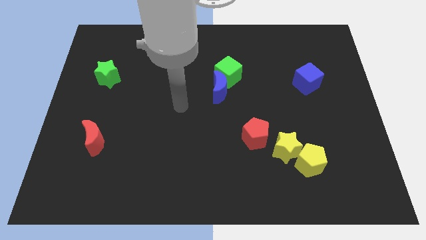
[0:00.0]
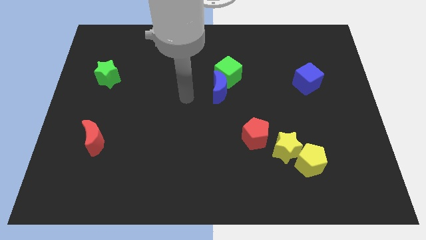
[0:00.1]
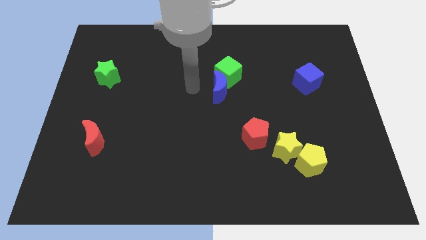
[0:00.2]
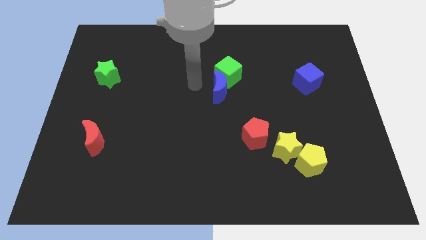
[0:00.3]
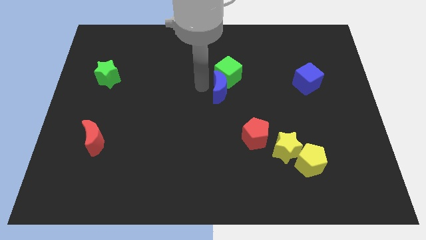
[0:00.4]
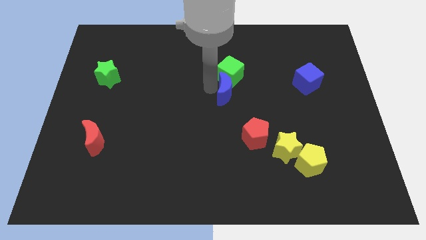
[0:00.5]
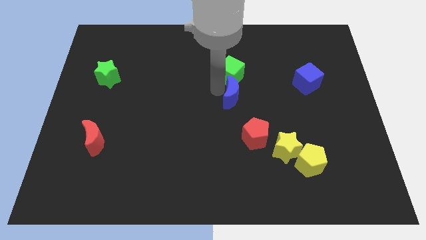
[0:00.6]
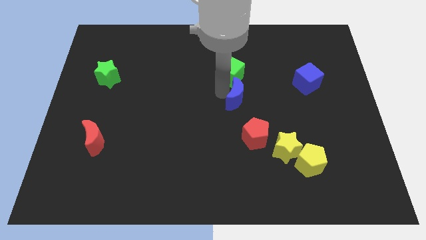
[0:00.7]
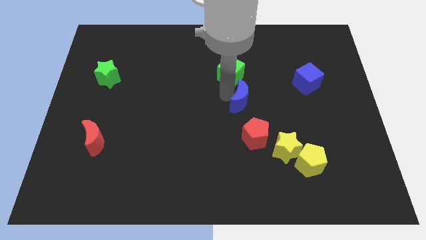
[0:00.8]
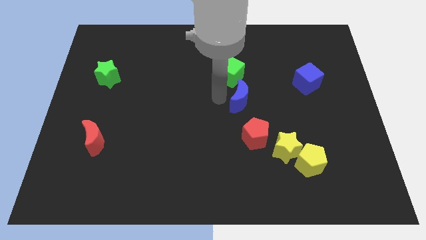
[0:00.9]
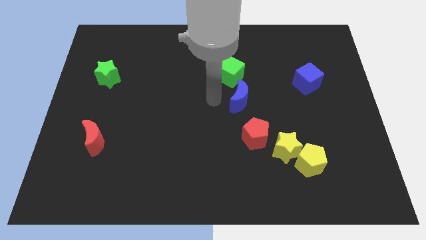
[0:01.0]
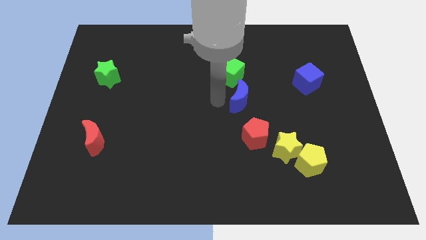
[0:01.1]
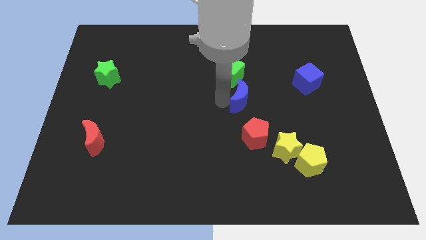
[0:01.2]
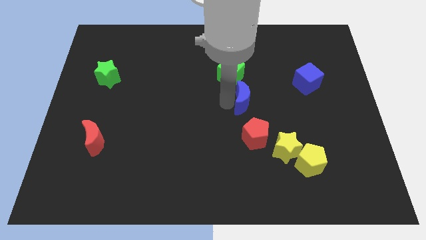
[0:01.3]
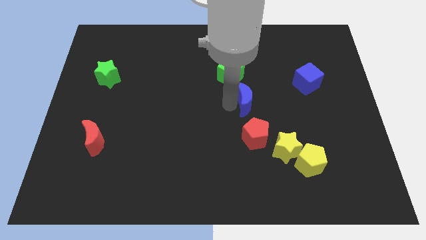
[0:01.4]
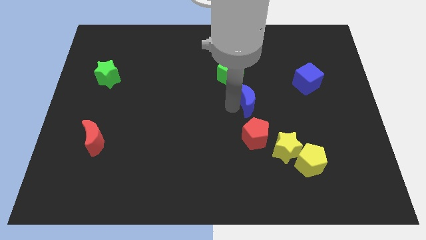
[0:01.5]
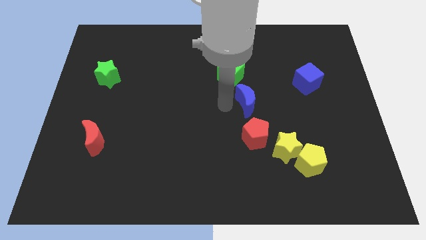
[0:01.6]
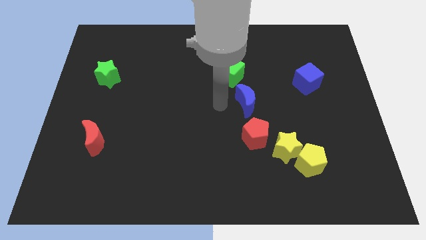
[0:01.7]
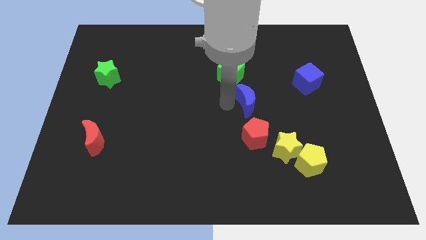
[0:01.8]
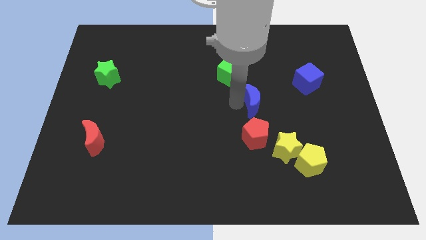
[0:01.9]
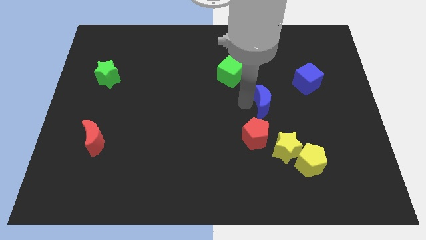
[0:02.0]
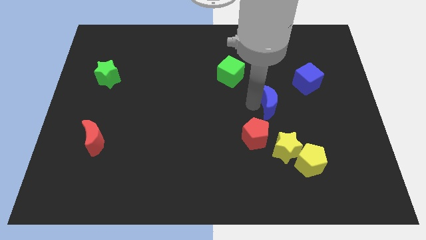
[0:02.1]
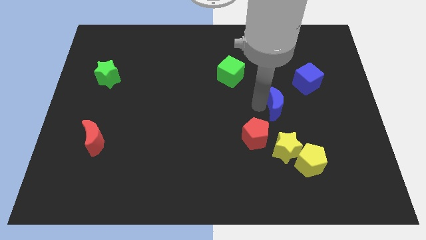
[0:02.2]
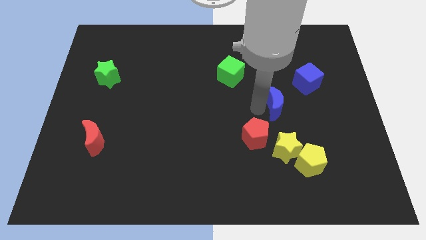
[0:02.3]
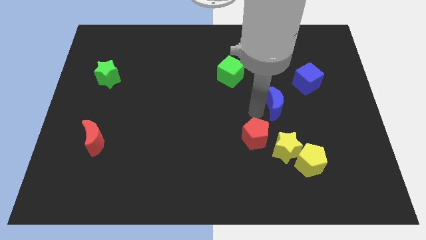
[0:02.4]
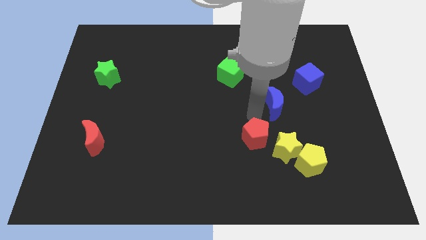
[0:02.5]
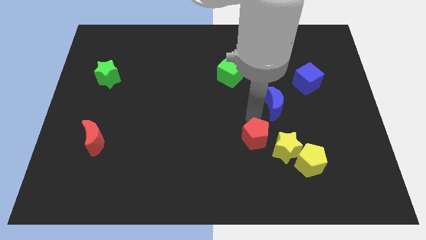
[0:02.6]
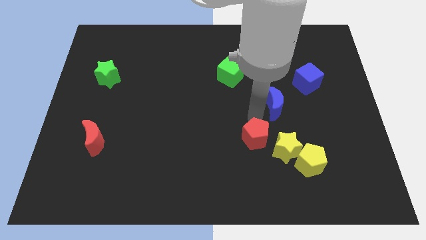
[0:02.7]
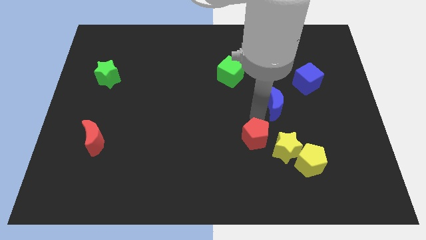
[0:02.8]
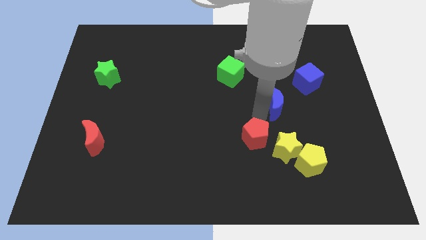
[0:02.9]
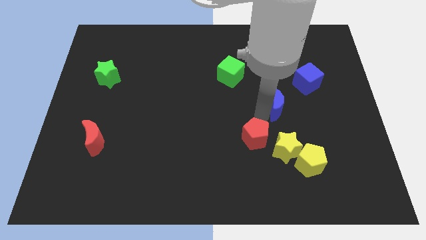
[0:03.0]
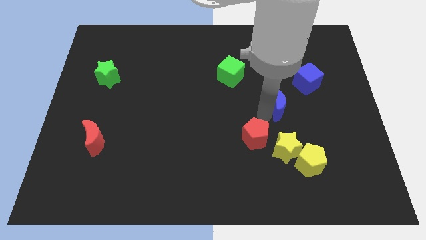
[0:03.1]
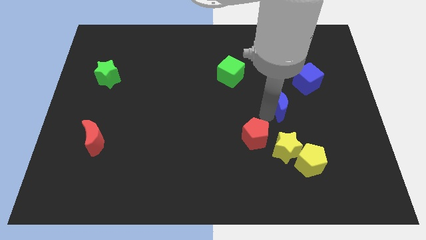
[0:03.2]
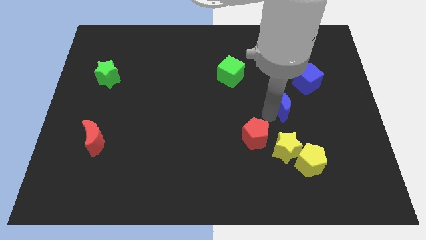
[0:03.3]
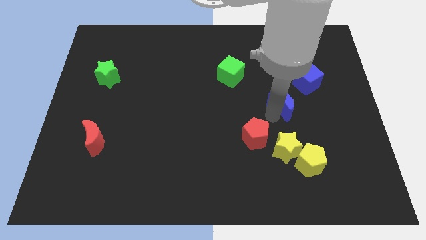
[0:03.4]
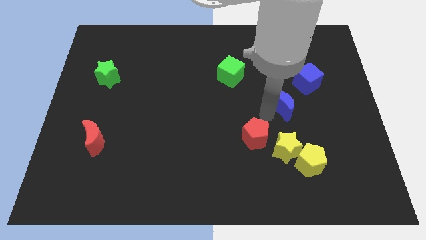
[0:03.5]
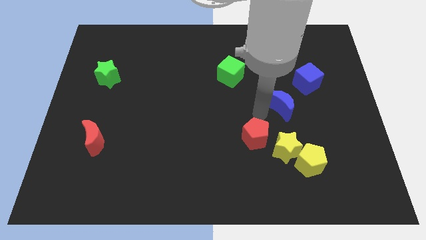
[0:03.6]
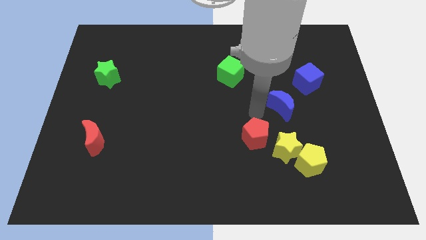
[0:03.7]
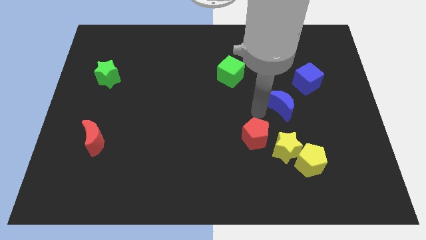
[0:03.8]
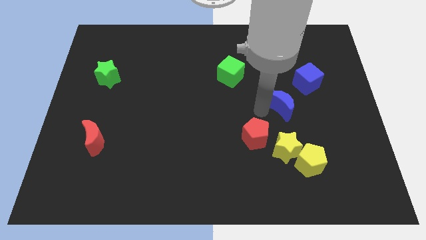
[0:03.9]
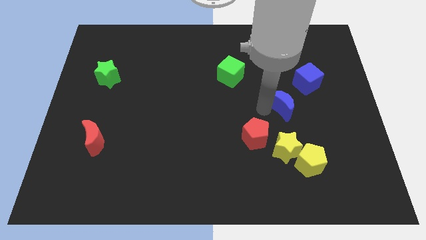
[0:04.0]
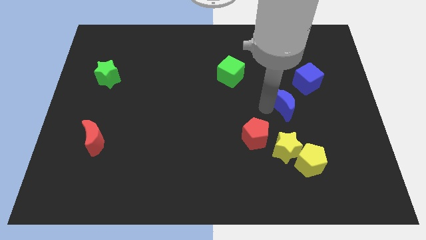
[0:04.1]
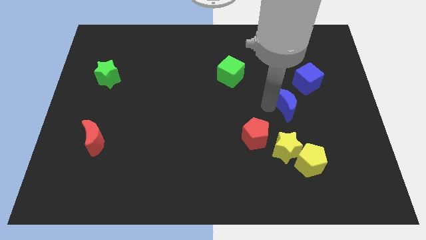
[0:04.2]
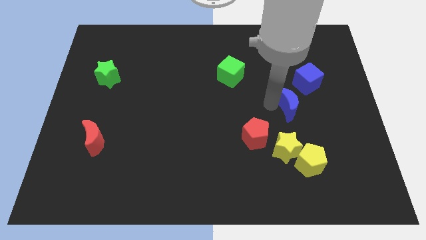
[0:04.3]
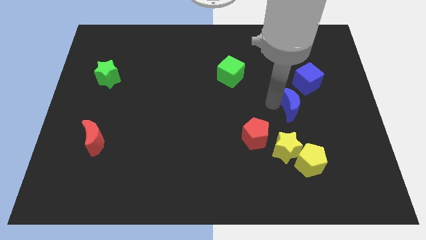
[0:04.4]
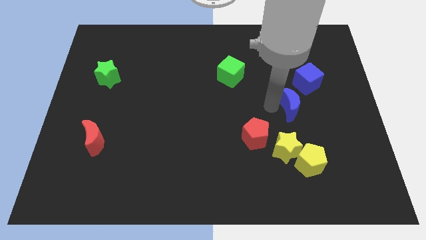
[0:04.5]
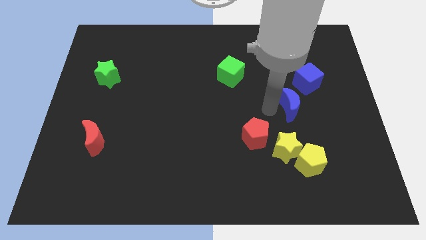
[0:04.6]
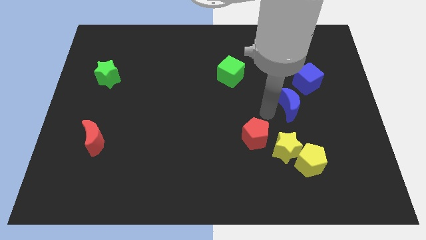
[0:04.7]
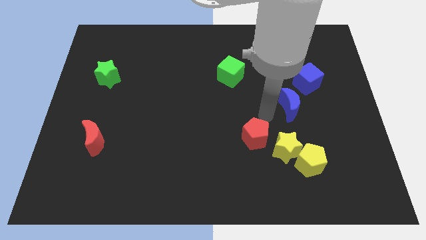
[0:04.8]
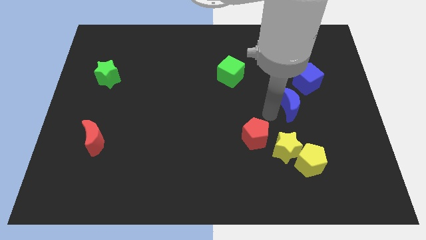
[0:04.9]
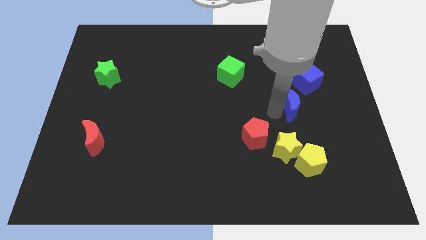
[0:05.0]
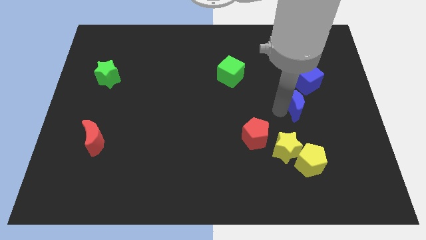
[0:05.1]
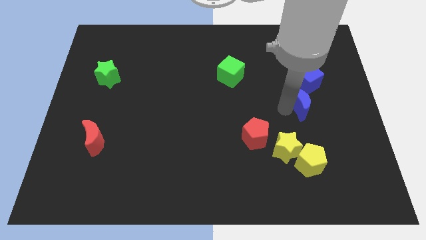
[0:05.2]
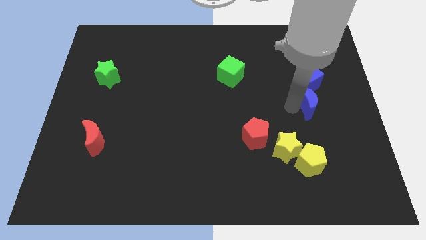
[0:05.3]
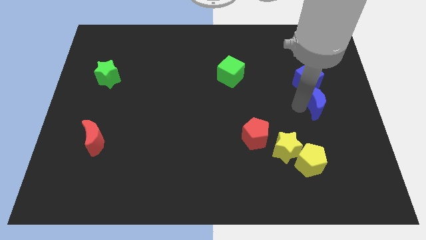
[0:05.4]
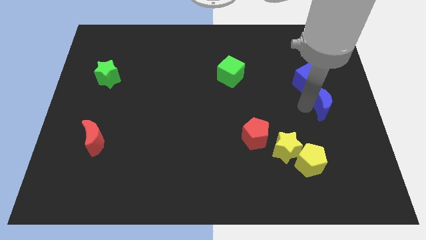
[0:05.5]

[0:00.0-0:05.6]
put the blue moon to the center right

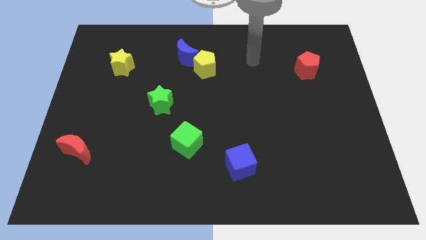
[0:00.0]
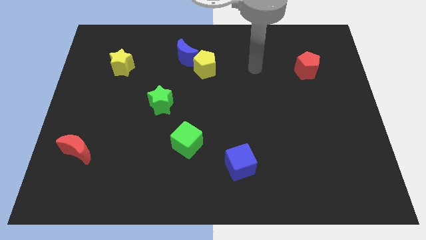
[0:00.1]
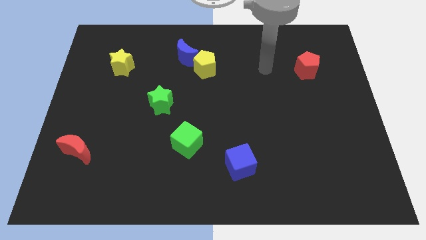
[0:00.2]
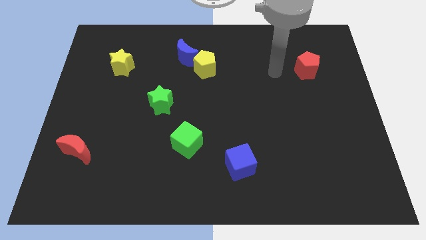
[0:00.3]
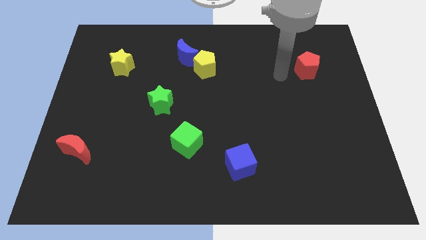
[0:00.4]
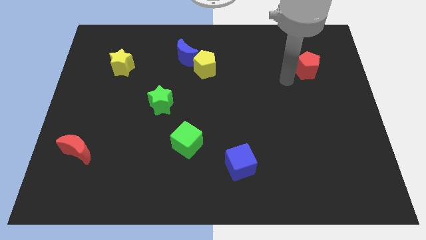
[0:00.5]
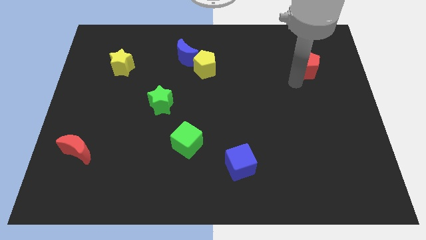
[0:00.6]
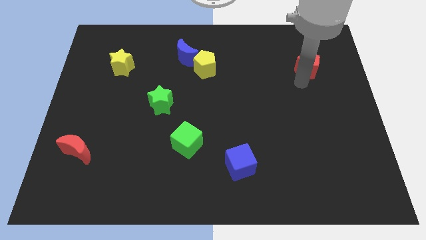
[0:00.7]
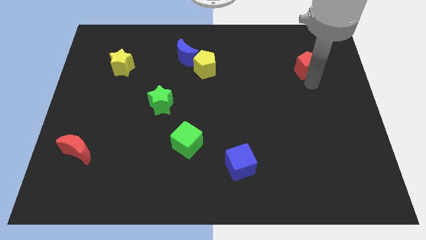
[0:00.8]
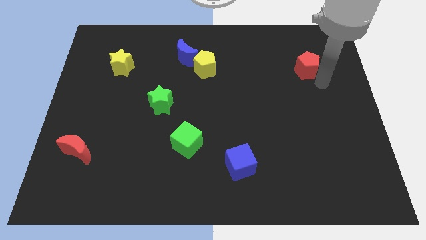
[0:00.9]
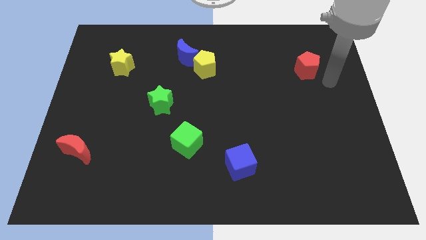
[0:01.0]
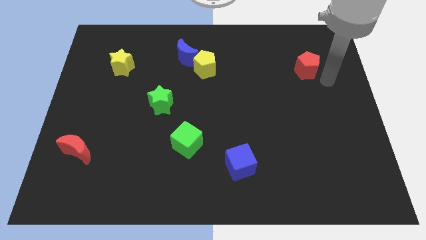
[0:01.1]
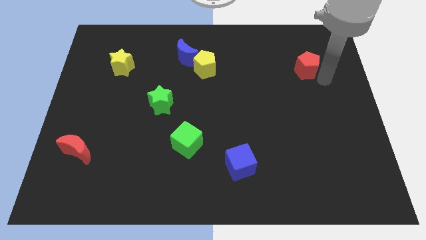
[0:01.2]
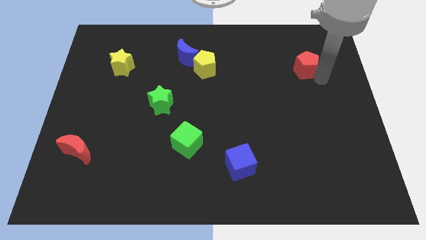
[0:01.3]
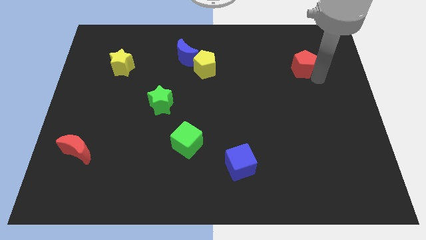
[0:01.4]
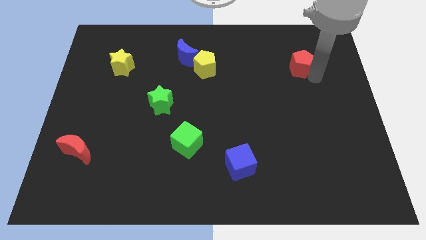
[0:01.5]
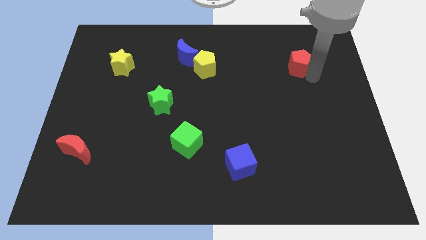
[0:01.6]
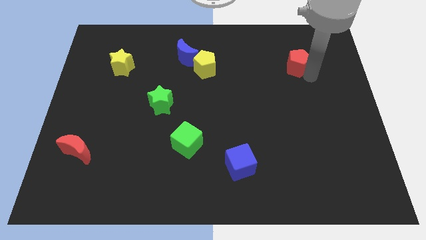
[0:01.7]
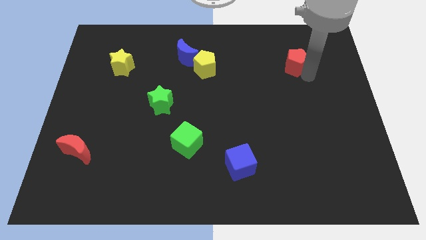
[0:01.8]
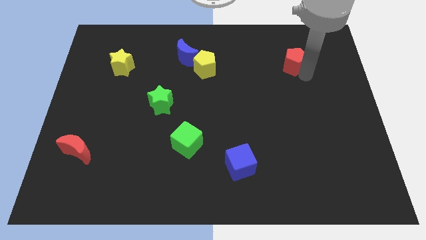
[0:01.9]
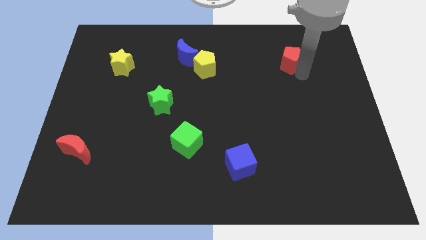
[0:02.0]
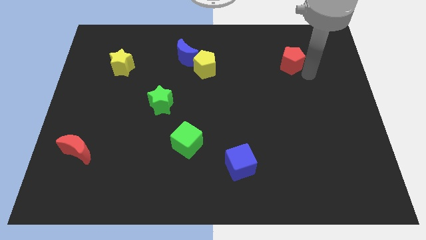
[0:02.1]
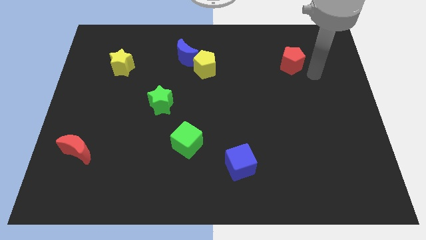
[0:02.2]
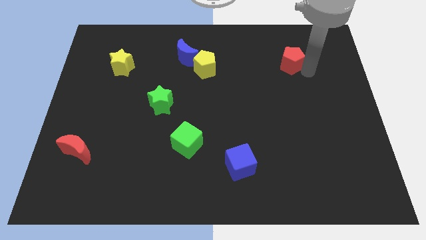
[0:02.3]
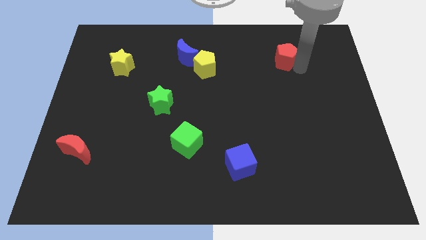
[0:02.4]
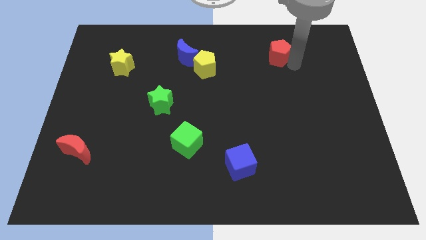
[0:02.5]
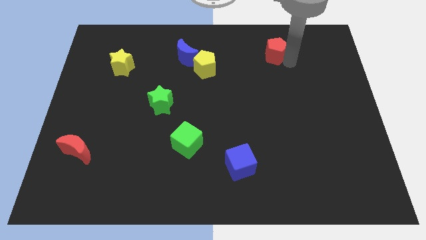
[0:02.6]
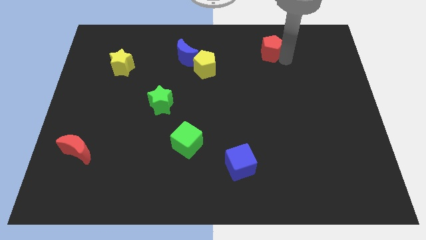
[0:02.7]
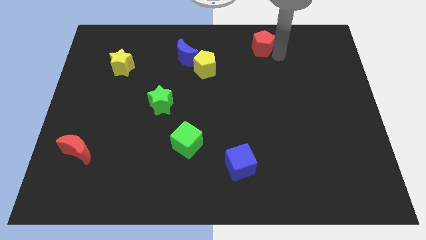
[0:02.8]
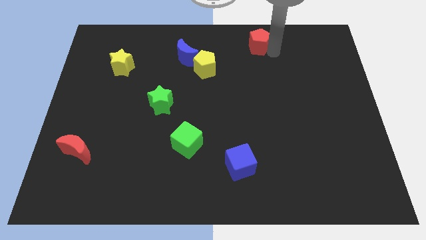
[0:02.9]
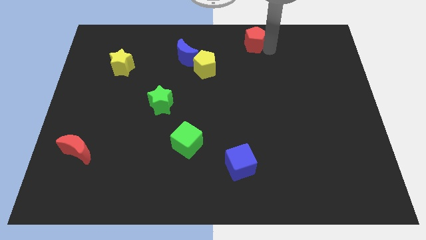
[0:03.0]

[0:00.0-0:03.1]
push the red pentagon to the top
